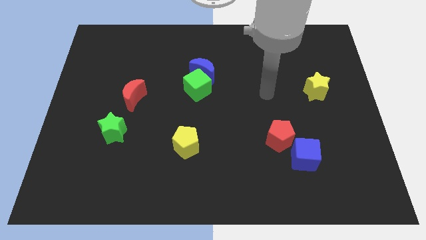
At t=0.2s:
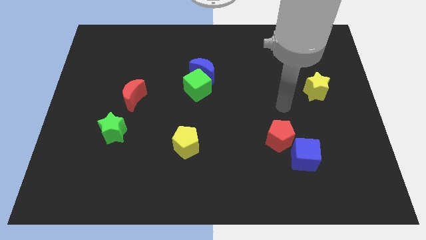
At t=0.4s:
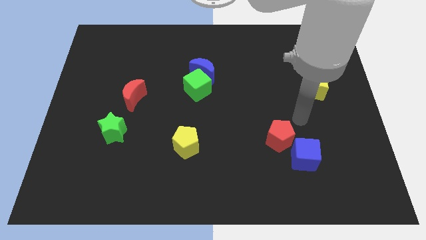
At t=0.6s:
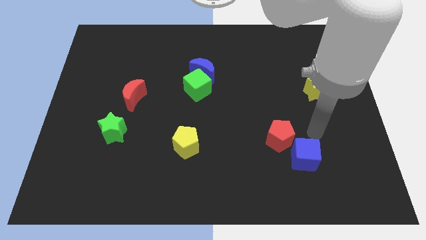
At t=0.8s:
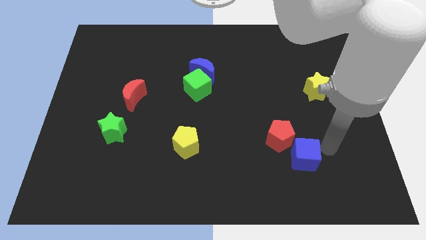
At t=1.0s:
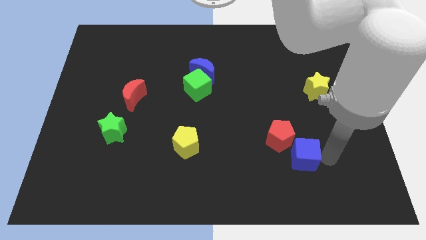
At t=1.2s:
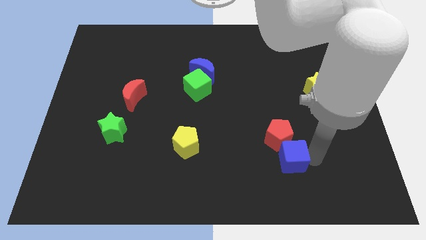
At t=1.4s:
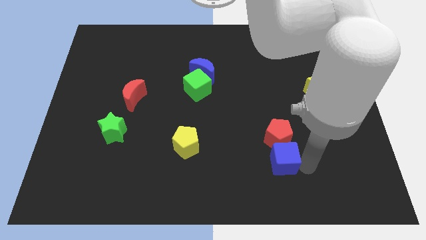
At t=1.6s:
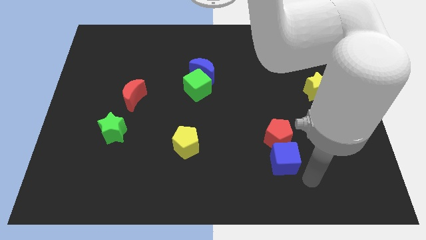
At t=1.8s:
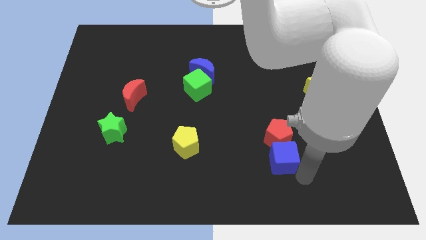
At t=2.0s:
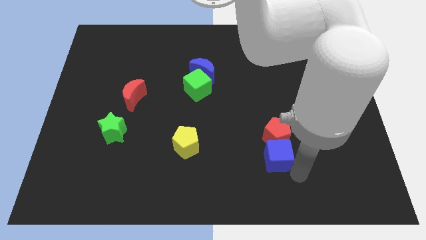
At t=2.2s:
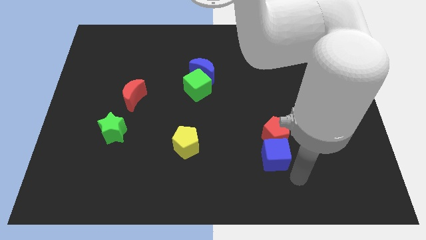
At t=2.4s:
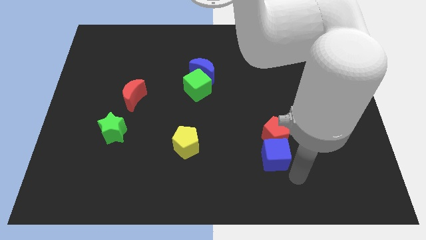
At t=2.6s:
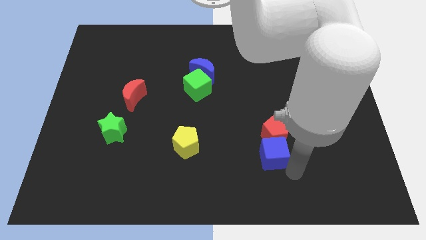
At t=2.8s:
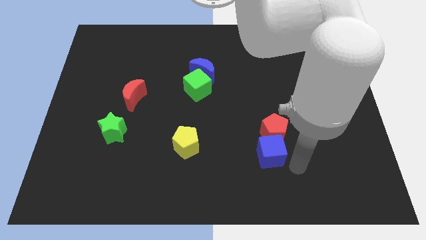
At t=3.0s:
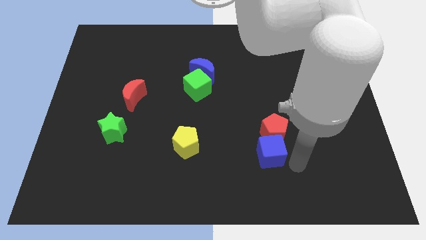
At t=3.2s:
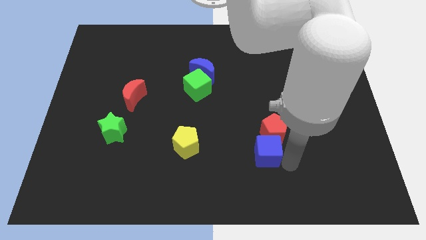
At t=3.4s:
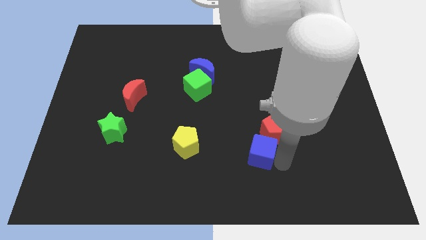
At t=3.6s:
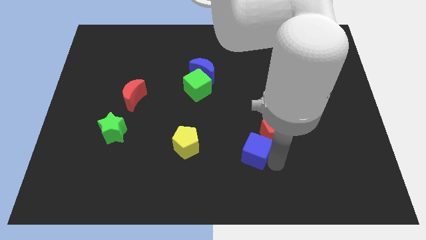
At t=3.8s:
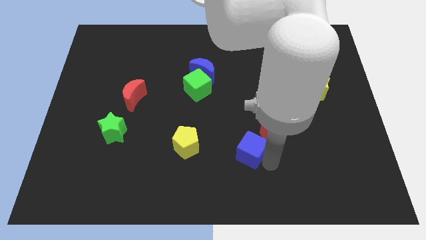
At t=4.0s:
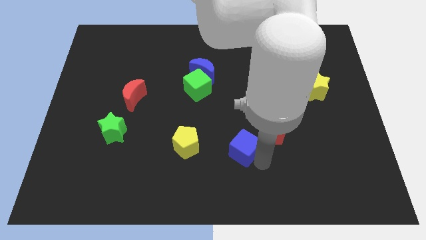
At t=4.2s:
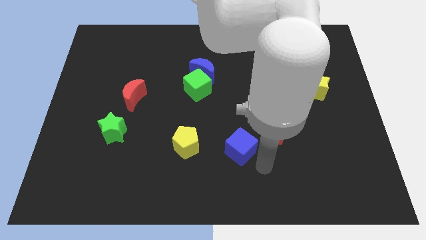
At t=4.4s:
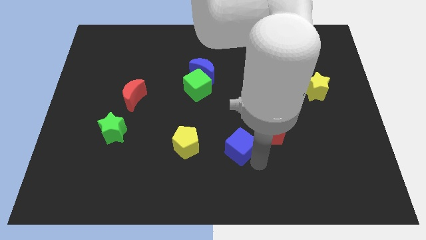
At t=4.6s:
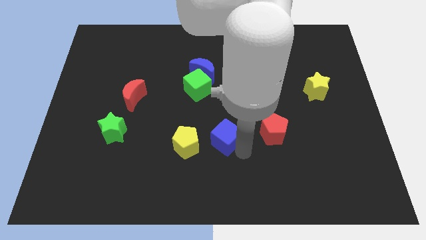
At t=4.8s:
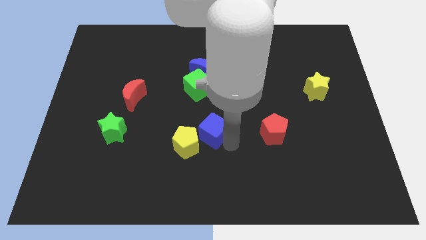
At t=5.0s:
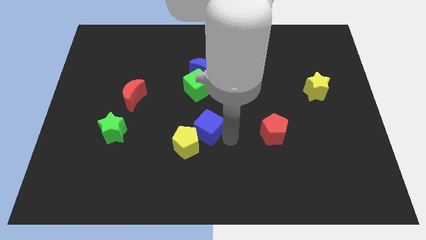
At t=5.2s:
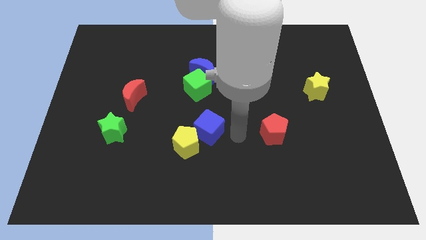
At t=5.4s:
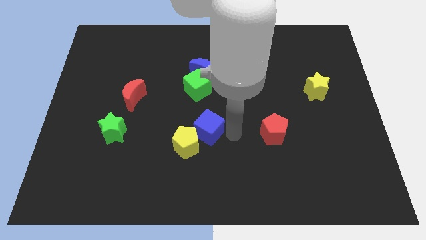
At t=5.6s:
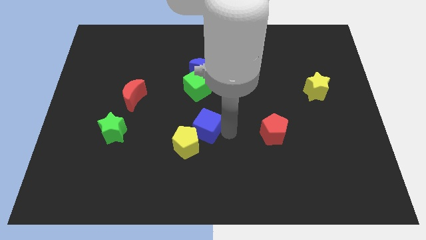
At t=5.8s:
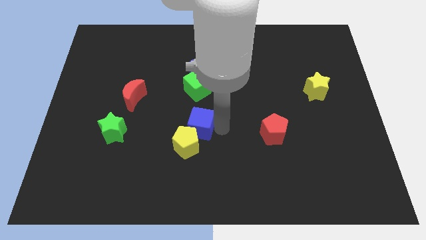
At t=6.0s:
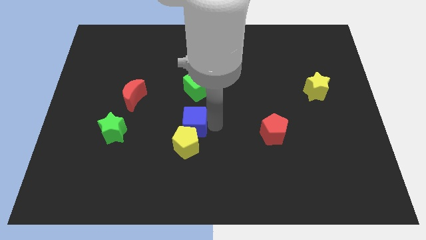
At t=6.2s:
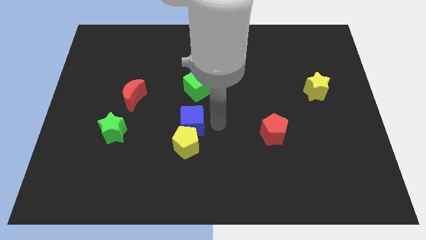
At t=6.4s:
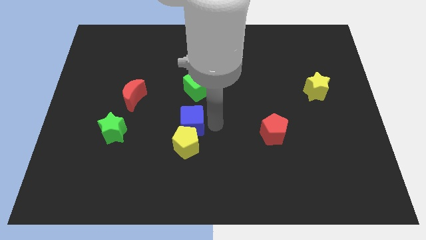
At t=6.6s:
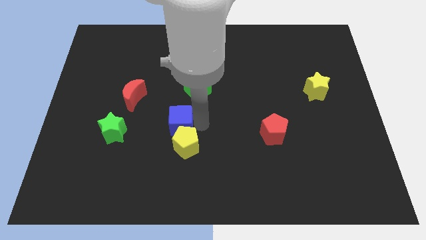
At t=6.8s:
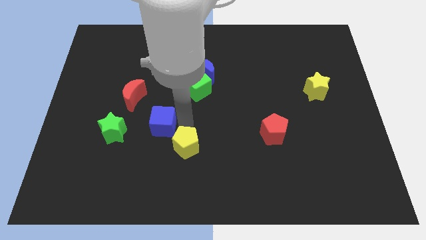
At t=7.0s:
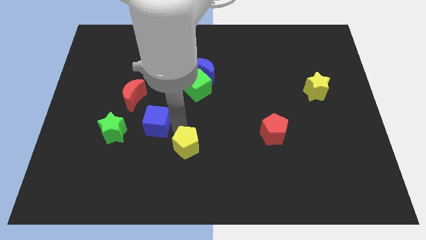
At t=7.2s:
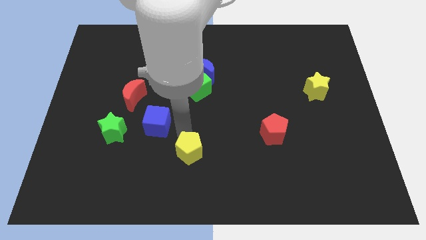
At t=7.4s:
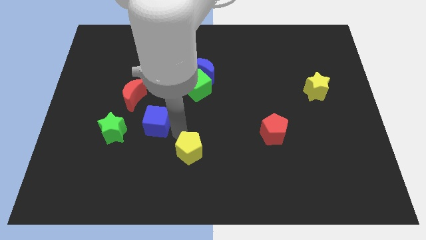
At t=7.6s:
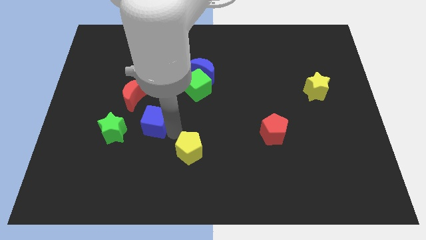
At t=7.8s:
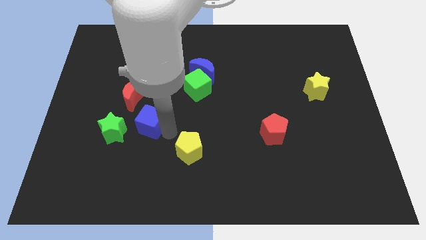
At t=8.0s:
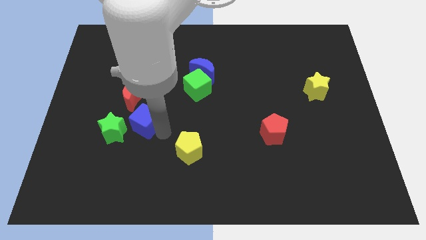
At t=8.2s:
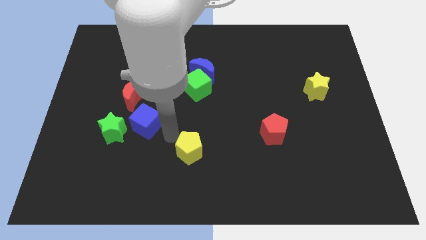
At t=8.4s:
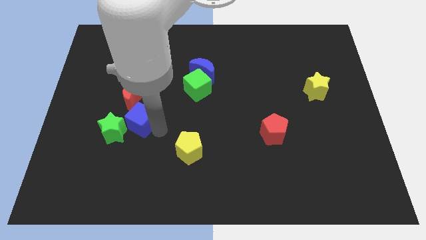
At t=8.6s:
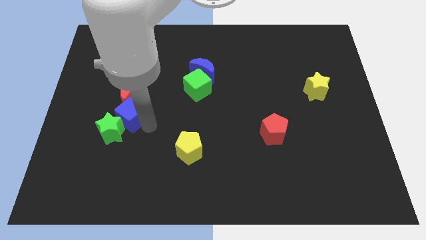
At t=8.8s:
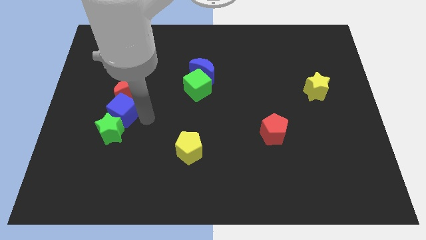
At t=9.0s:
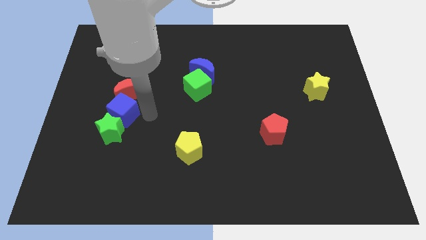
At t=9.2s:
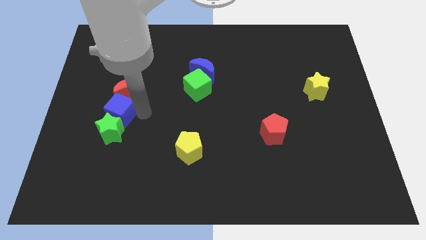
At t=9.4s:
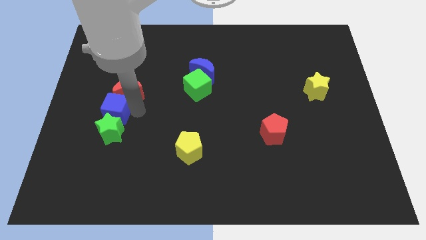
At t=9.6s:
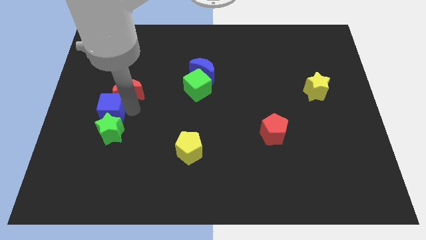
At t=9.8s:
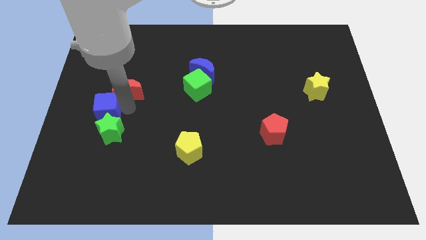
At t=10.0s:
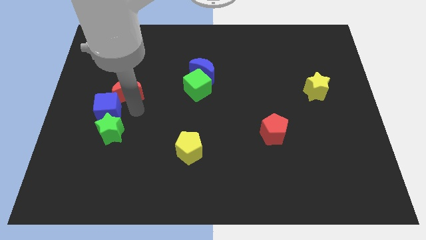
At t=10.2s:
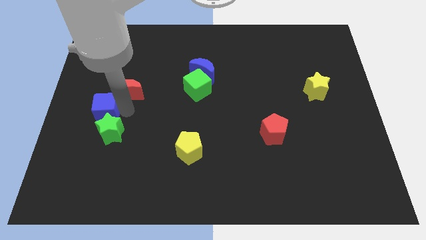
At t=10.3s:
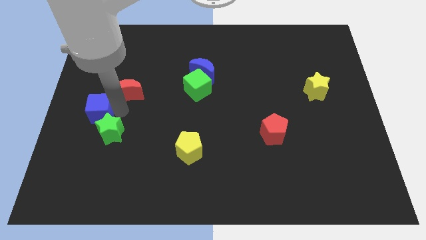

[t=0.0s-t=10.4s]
move the blue cube to the left side of the board

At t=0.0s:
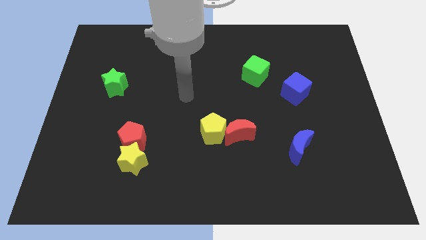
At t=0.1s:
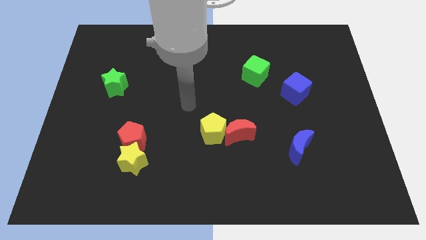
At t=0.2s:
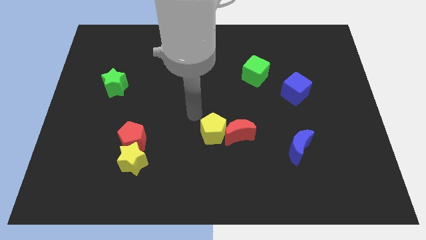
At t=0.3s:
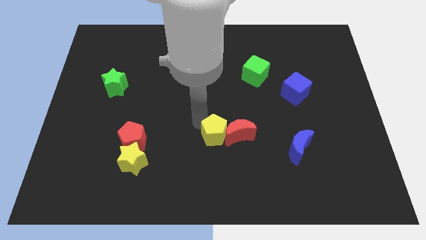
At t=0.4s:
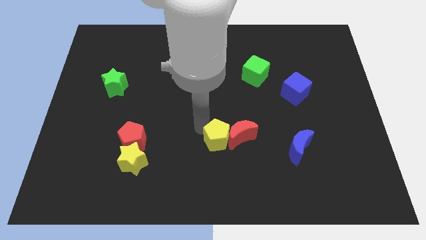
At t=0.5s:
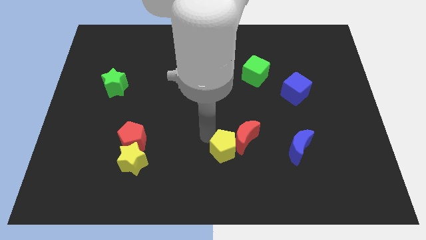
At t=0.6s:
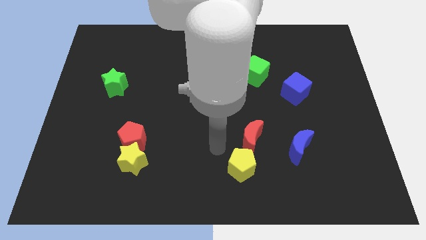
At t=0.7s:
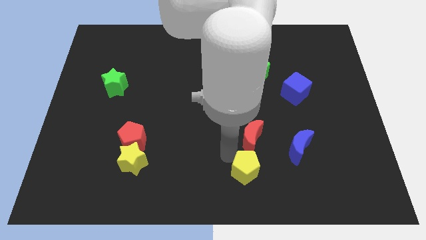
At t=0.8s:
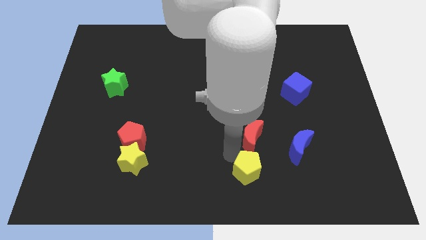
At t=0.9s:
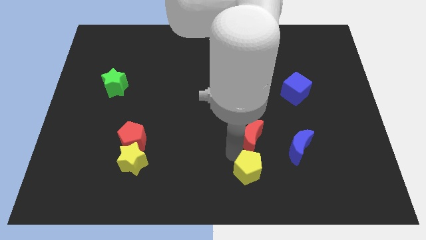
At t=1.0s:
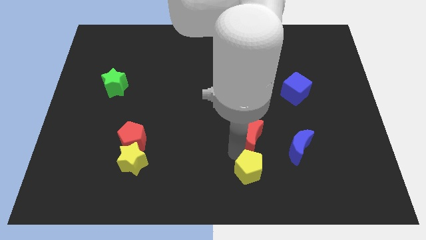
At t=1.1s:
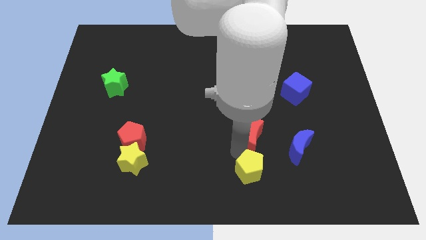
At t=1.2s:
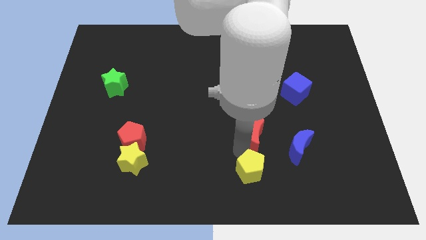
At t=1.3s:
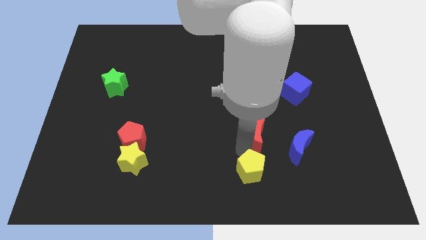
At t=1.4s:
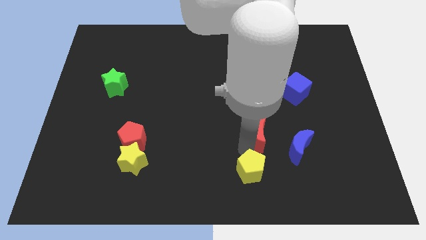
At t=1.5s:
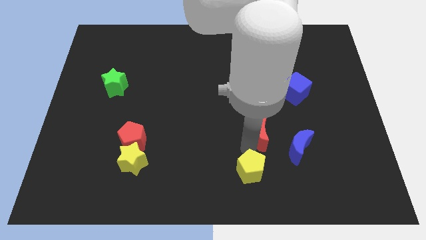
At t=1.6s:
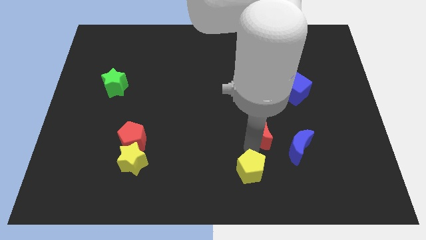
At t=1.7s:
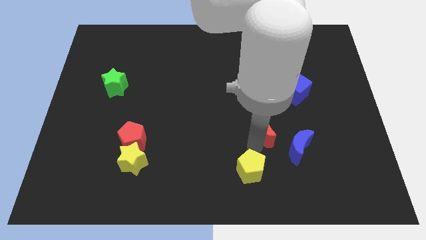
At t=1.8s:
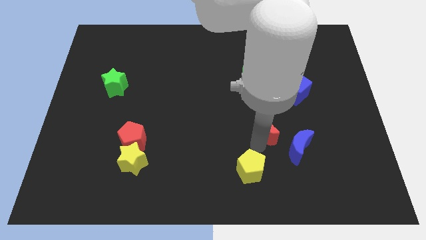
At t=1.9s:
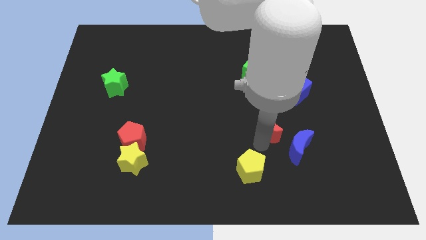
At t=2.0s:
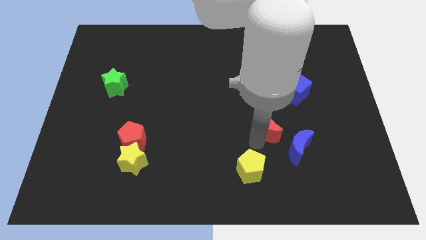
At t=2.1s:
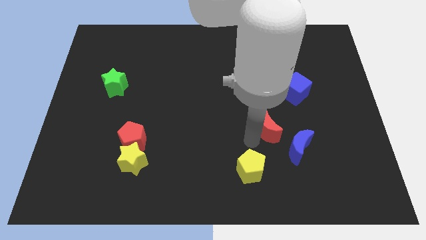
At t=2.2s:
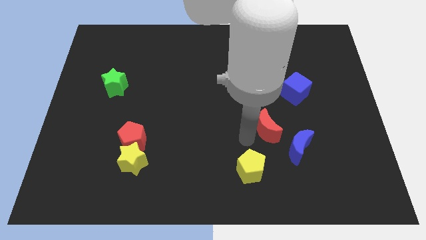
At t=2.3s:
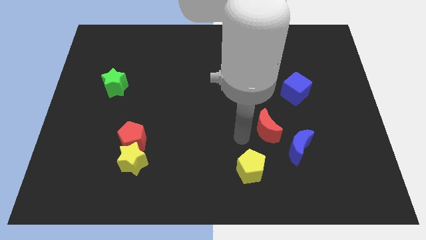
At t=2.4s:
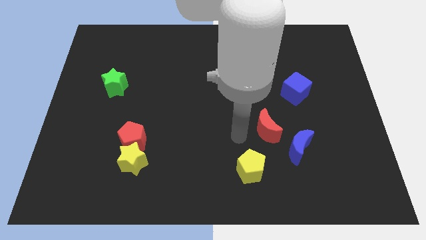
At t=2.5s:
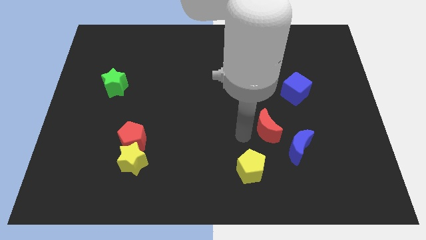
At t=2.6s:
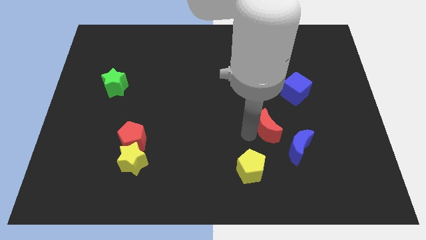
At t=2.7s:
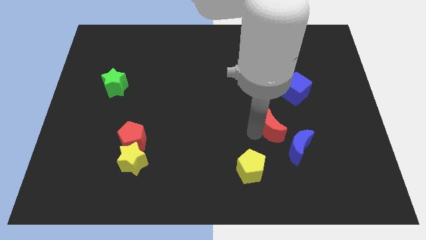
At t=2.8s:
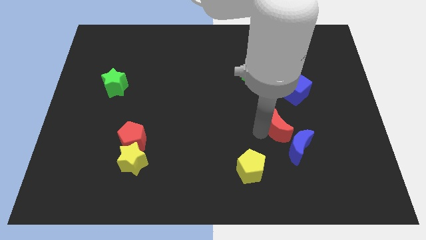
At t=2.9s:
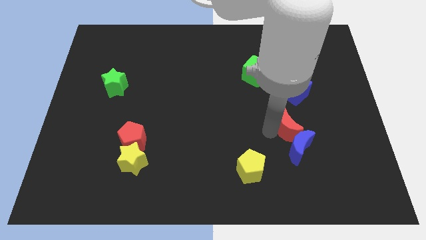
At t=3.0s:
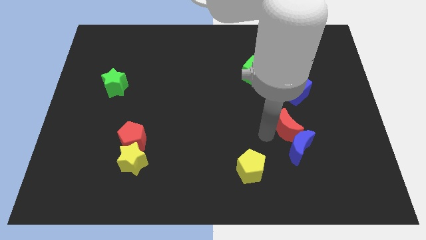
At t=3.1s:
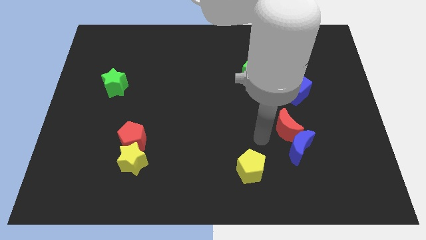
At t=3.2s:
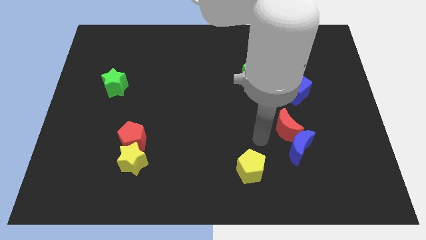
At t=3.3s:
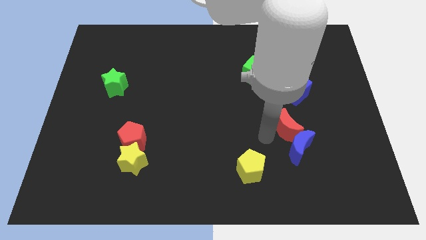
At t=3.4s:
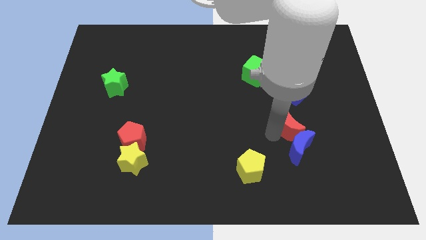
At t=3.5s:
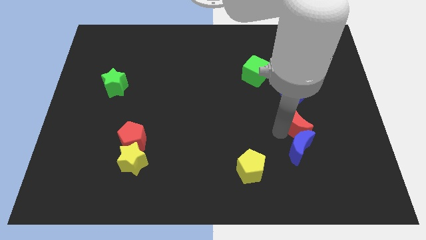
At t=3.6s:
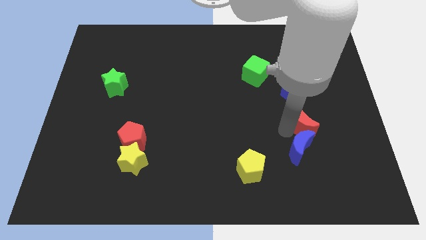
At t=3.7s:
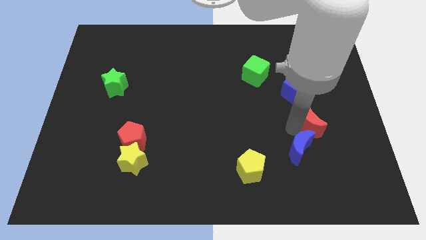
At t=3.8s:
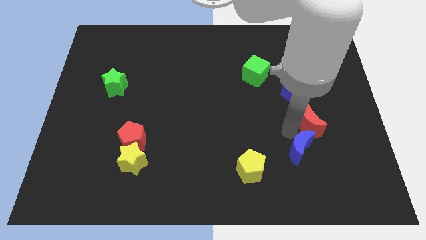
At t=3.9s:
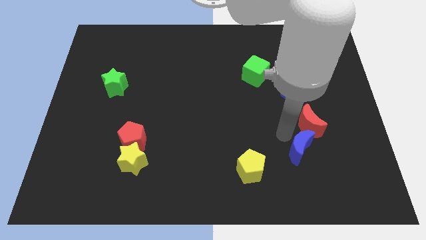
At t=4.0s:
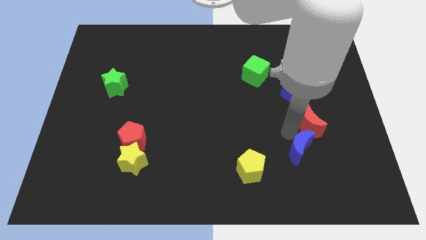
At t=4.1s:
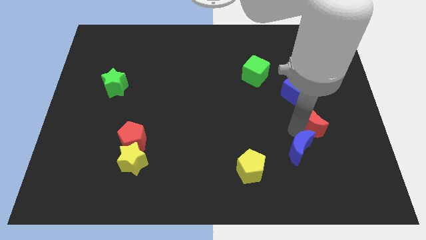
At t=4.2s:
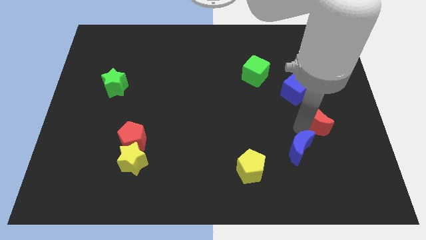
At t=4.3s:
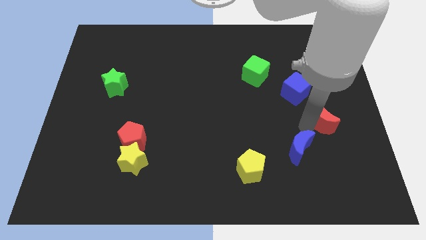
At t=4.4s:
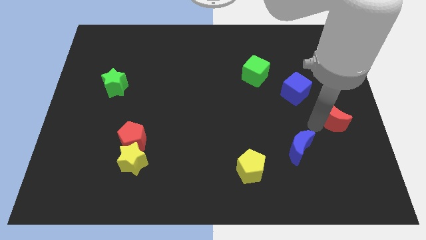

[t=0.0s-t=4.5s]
slide the red moon to the center right
